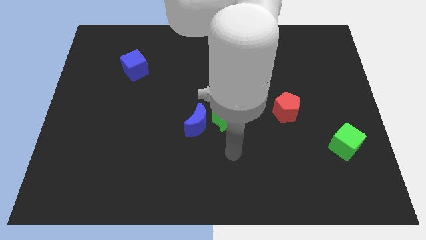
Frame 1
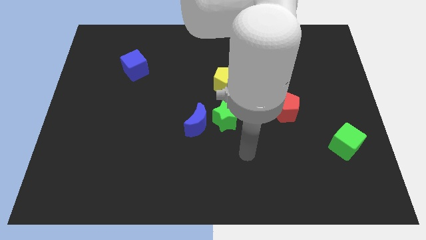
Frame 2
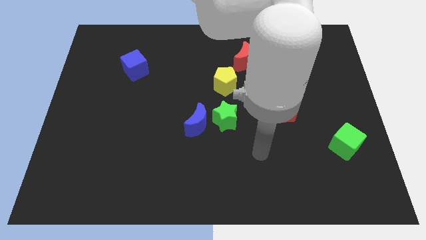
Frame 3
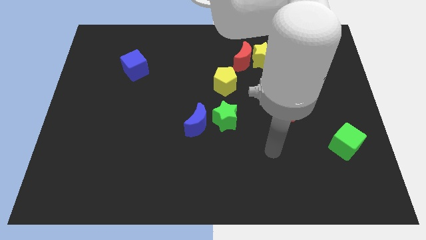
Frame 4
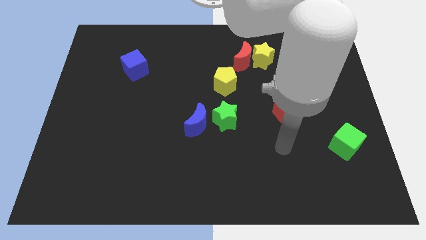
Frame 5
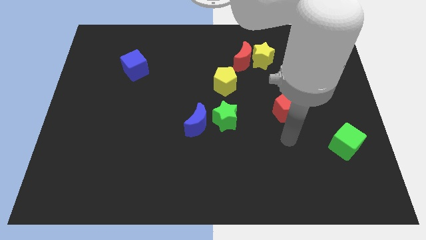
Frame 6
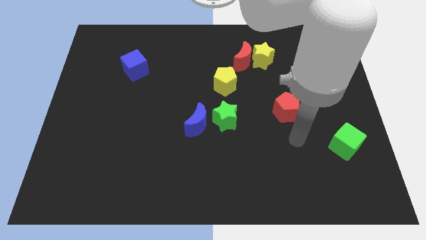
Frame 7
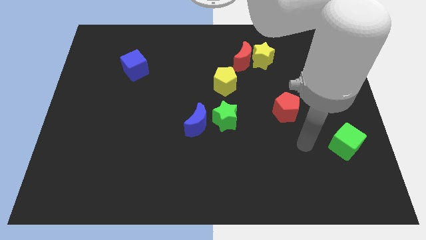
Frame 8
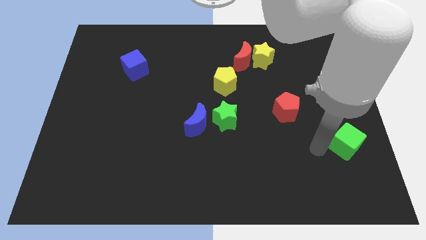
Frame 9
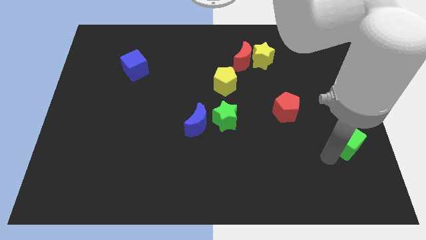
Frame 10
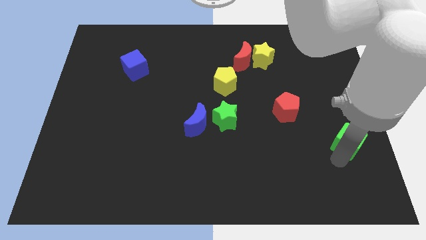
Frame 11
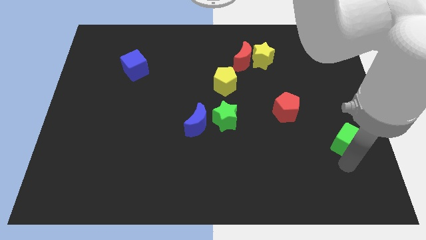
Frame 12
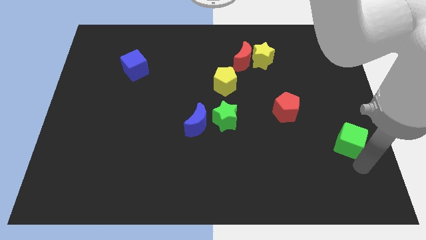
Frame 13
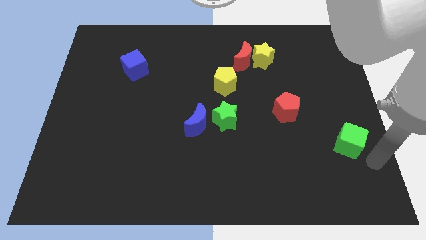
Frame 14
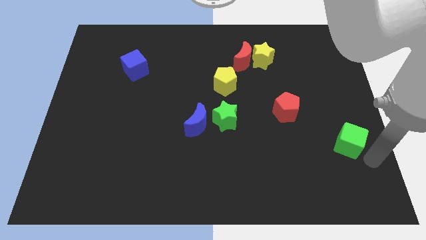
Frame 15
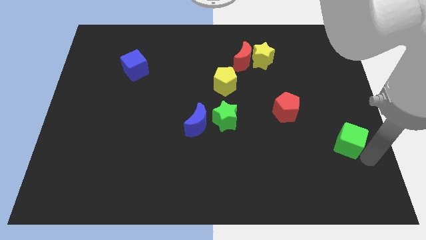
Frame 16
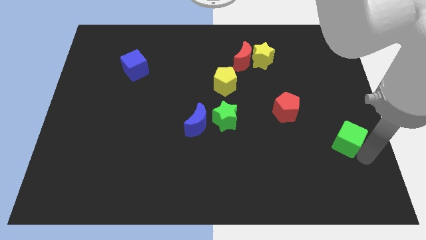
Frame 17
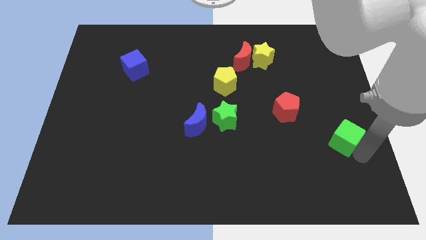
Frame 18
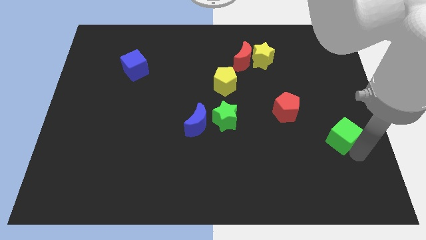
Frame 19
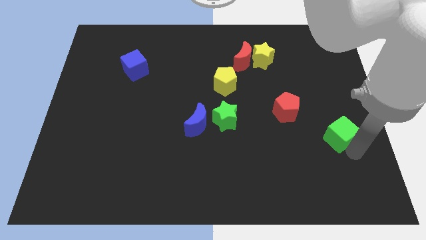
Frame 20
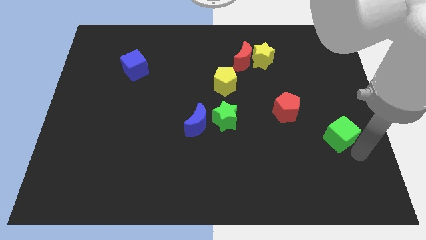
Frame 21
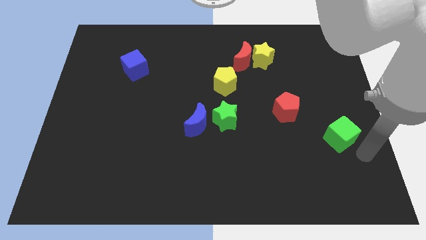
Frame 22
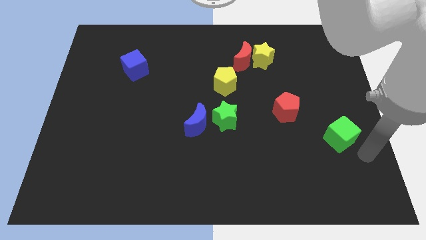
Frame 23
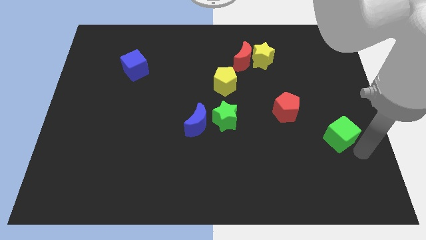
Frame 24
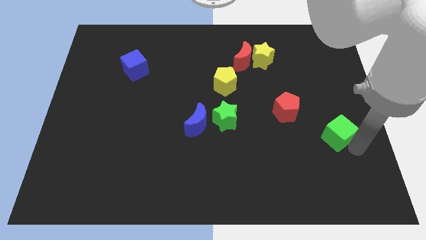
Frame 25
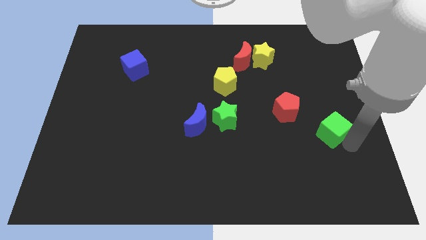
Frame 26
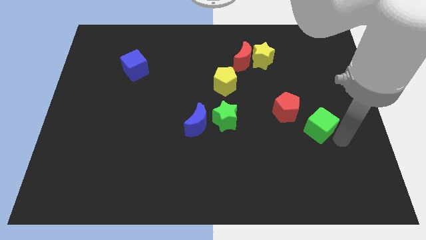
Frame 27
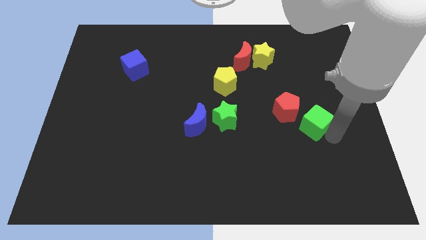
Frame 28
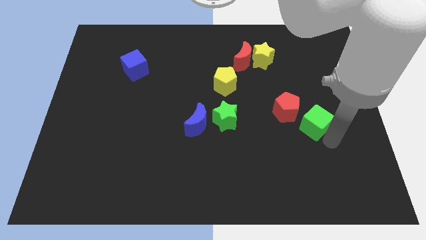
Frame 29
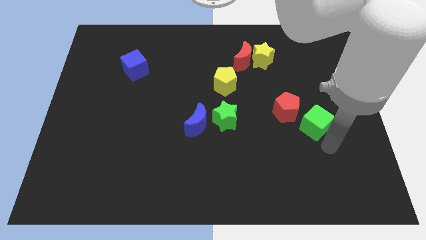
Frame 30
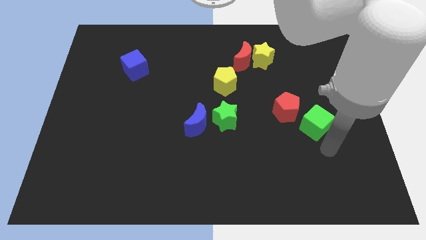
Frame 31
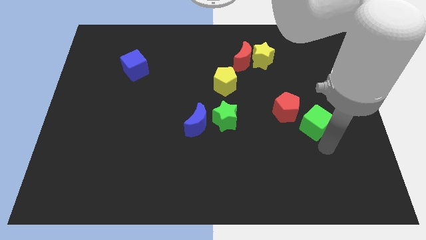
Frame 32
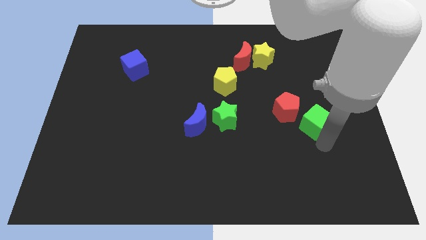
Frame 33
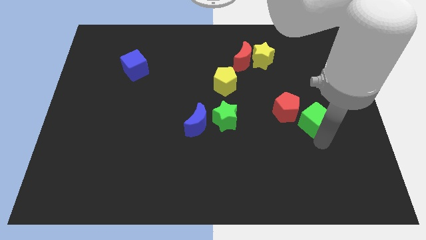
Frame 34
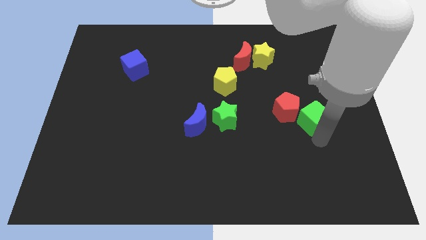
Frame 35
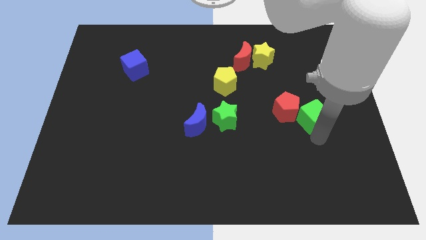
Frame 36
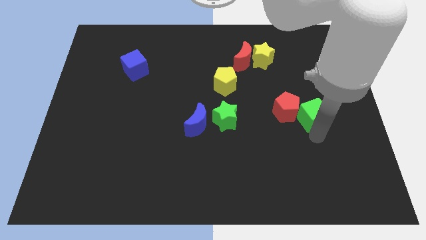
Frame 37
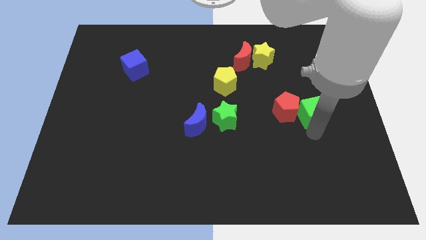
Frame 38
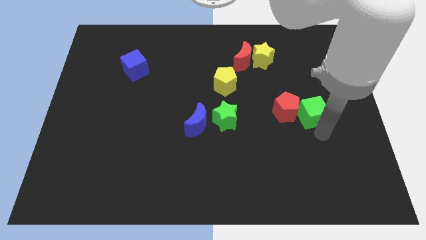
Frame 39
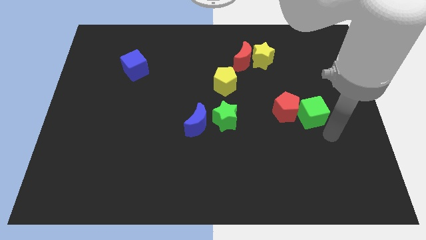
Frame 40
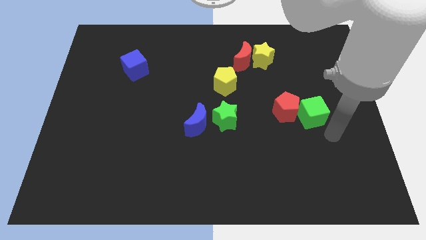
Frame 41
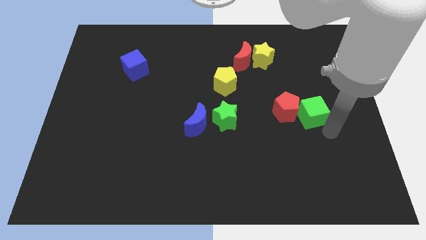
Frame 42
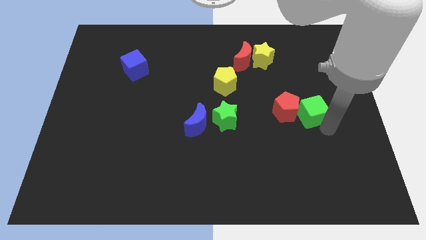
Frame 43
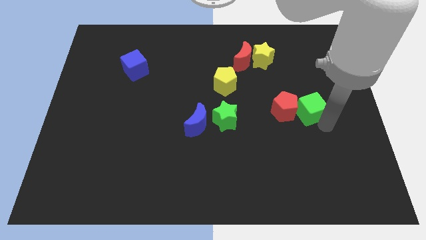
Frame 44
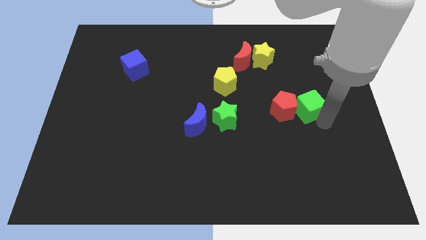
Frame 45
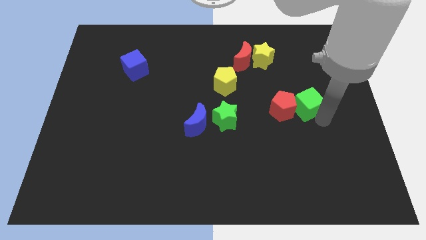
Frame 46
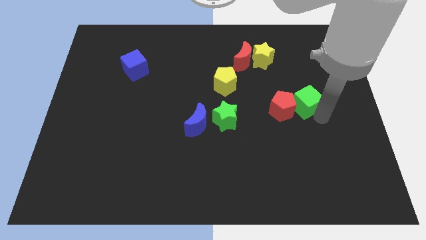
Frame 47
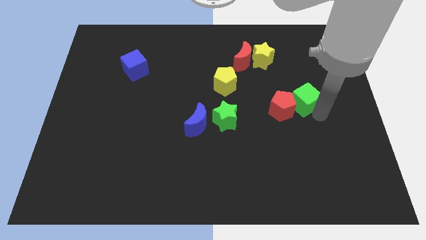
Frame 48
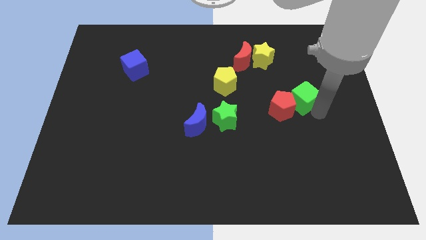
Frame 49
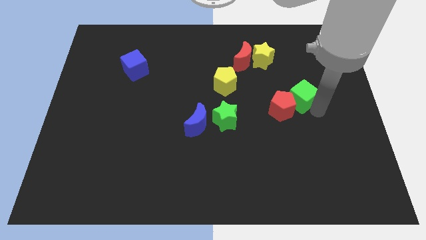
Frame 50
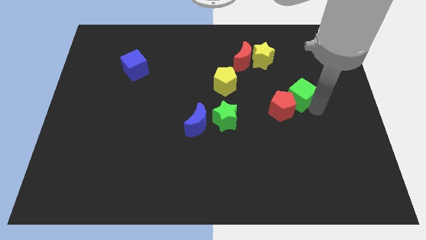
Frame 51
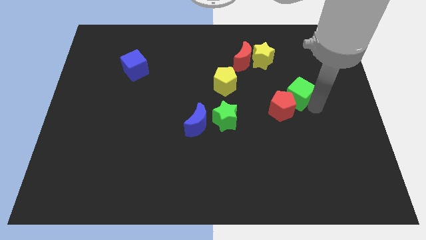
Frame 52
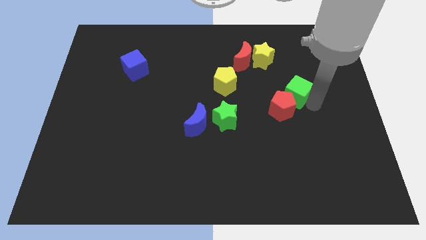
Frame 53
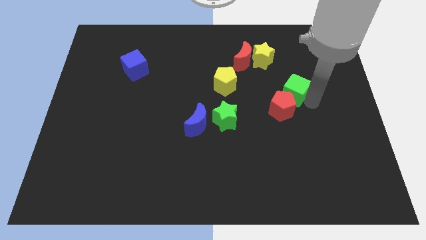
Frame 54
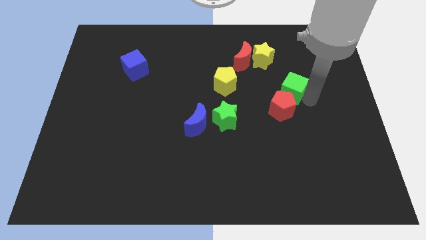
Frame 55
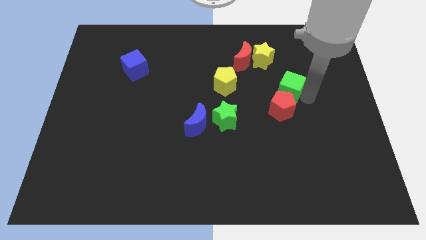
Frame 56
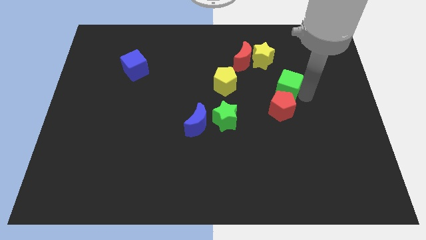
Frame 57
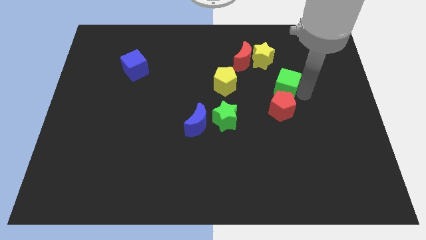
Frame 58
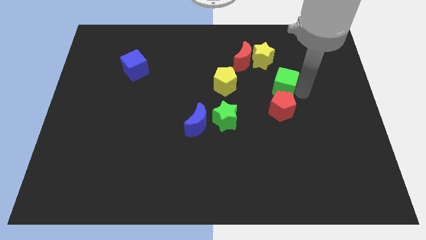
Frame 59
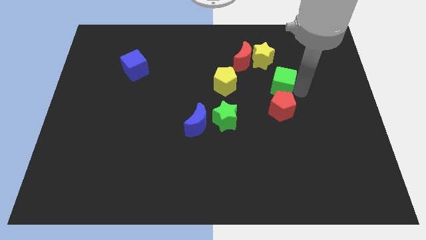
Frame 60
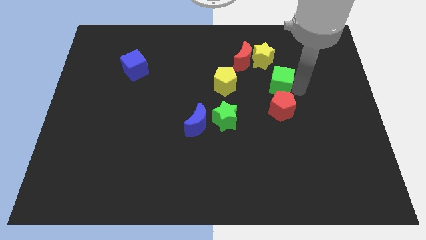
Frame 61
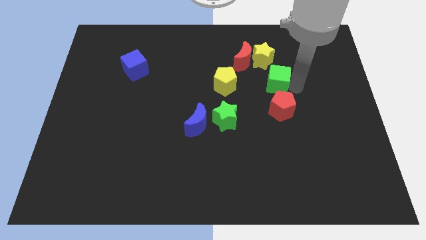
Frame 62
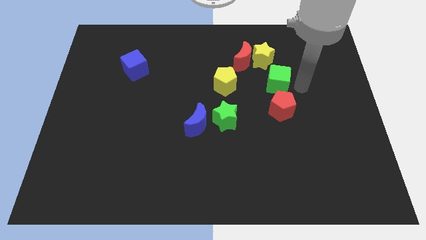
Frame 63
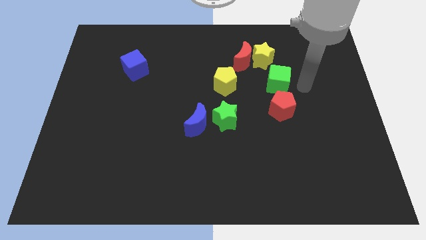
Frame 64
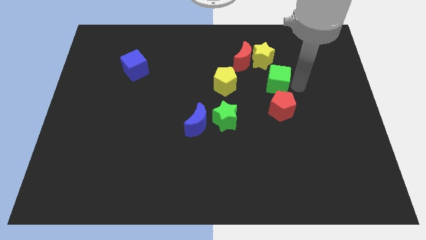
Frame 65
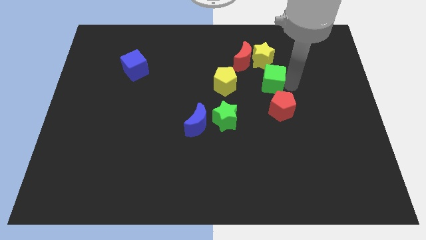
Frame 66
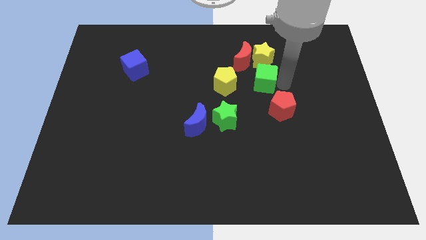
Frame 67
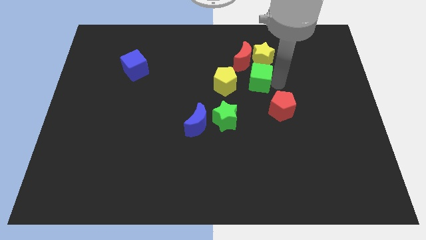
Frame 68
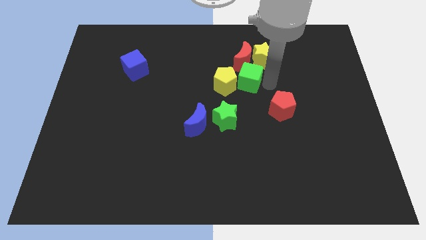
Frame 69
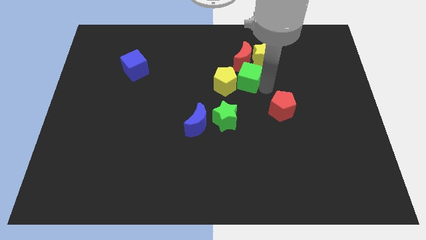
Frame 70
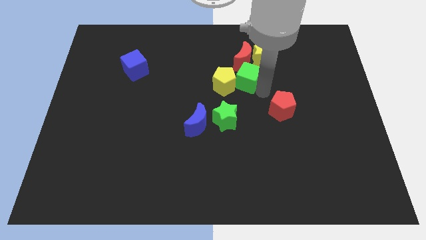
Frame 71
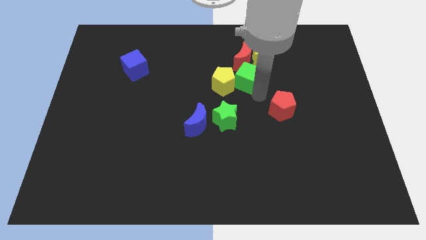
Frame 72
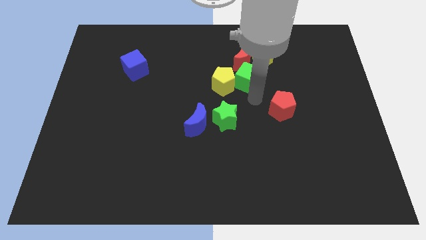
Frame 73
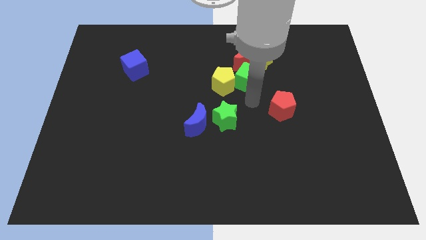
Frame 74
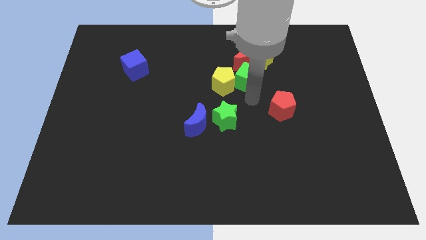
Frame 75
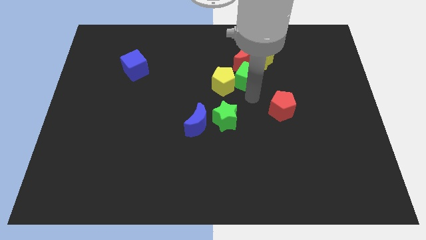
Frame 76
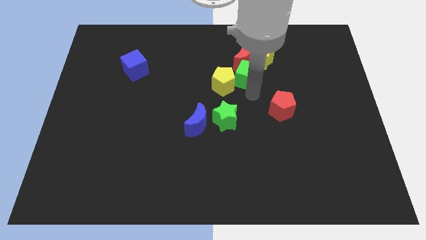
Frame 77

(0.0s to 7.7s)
slide the green cube close to the red moon
